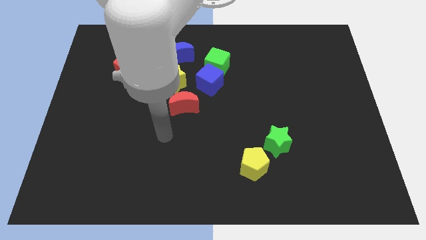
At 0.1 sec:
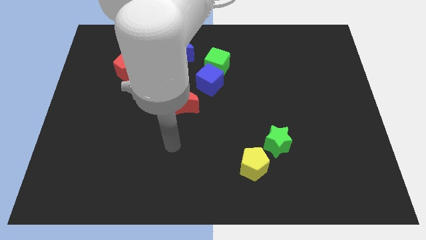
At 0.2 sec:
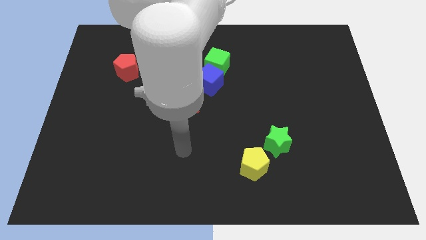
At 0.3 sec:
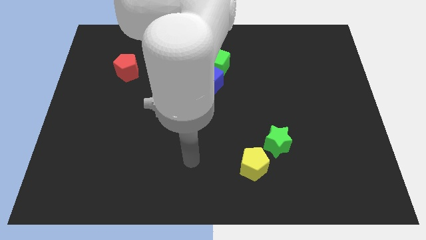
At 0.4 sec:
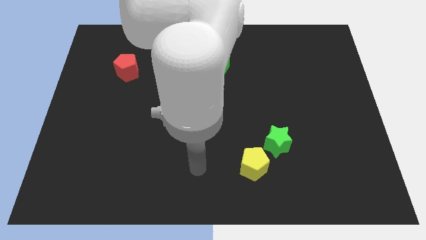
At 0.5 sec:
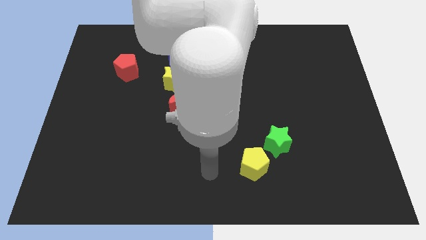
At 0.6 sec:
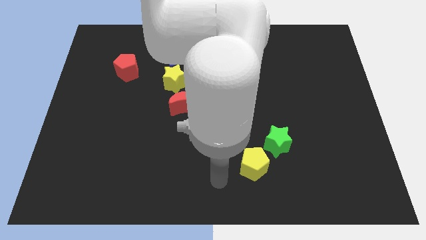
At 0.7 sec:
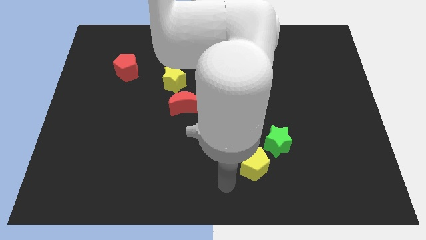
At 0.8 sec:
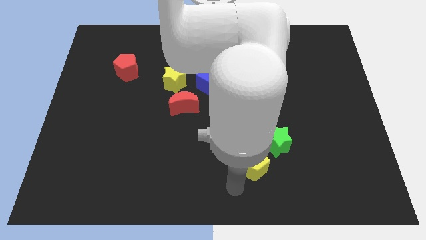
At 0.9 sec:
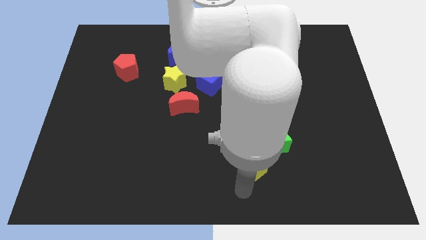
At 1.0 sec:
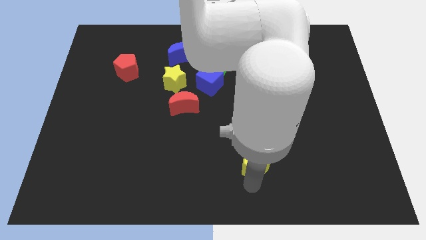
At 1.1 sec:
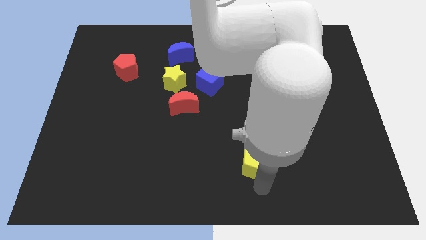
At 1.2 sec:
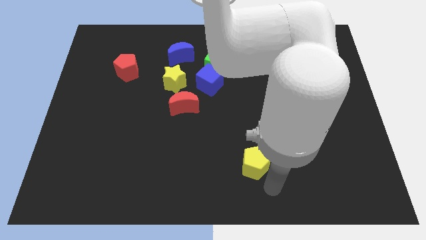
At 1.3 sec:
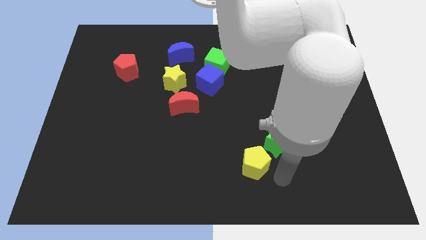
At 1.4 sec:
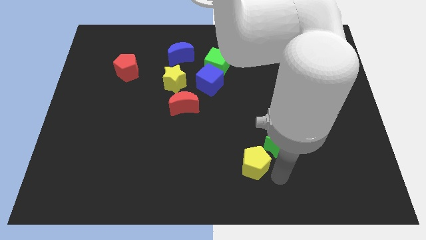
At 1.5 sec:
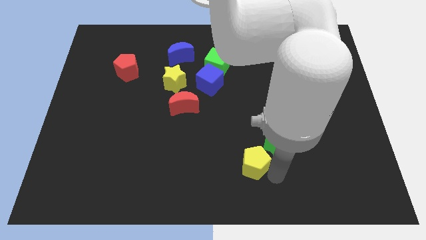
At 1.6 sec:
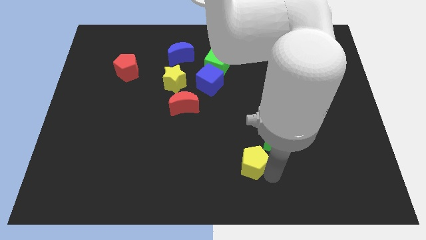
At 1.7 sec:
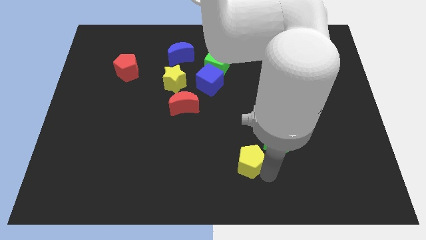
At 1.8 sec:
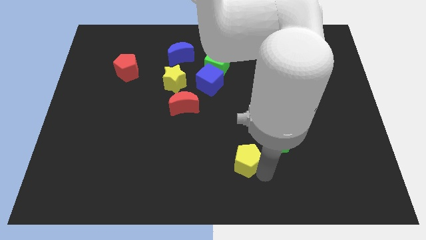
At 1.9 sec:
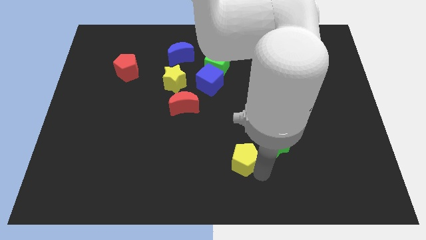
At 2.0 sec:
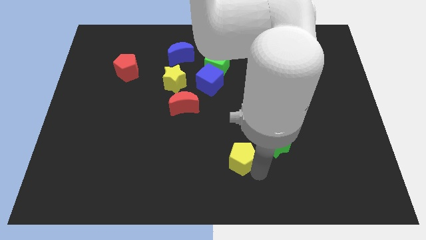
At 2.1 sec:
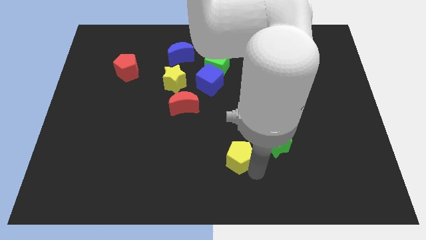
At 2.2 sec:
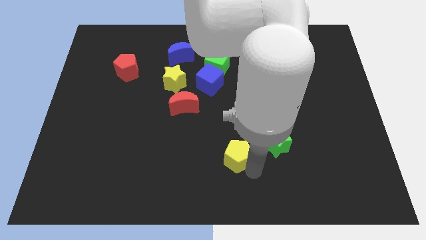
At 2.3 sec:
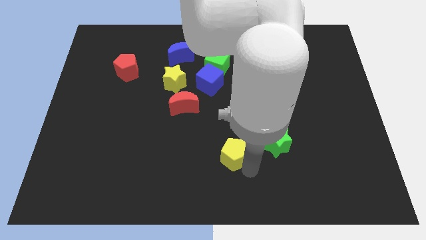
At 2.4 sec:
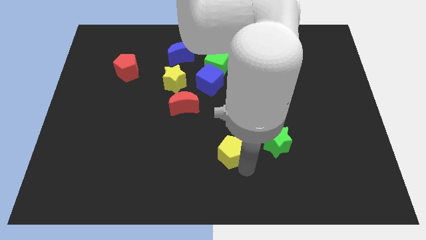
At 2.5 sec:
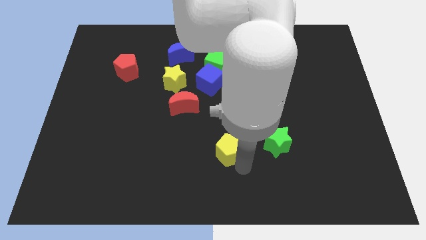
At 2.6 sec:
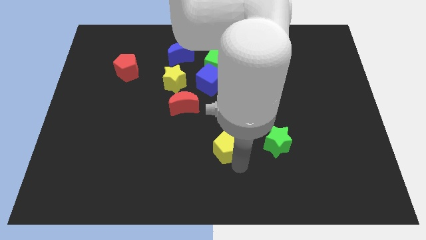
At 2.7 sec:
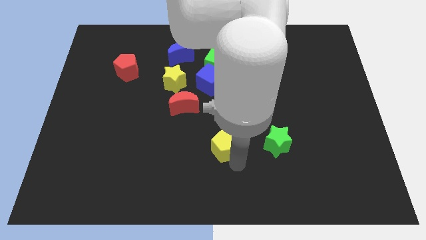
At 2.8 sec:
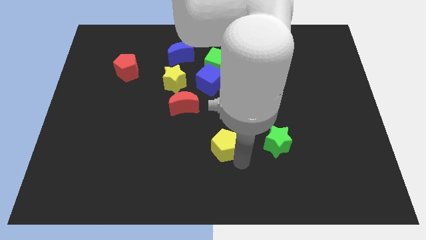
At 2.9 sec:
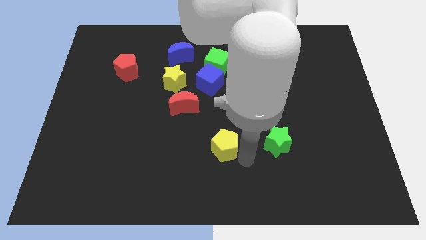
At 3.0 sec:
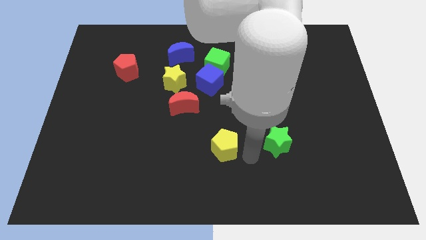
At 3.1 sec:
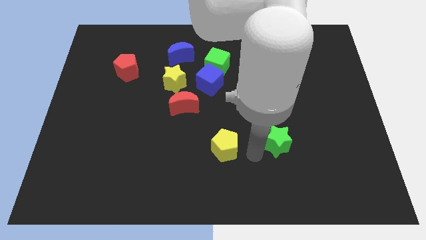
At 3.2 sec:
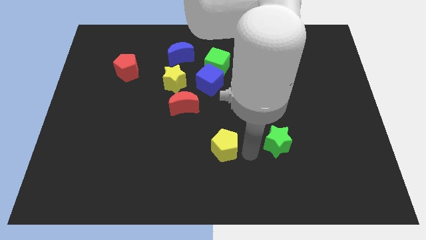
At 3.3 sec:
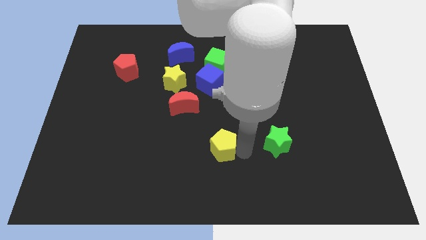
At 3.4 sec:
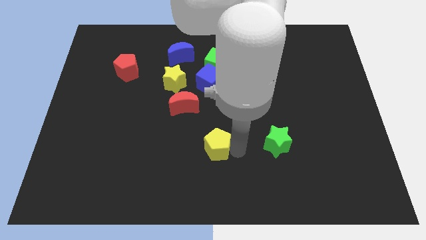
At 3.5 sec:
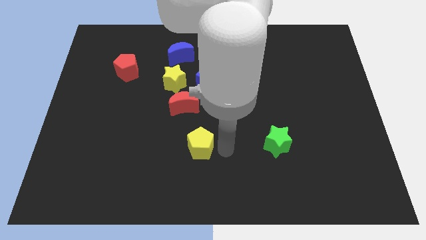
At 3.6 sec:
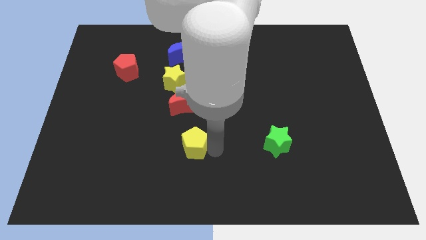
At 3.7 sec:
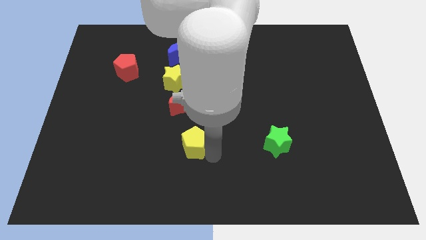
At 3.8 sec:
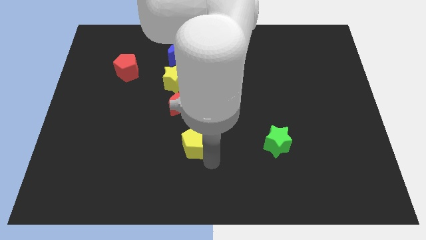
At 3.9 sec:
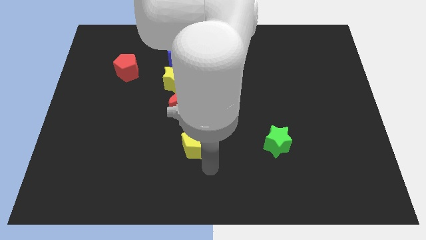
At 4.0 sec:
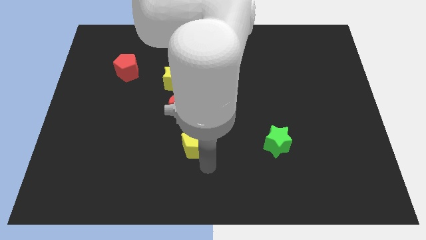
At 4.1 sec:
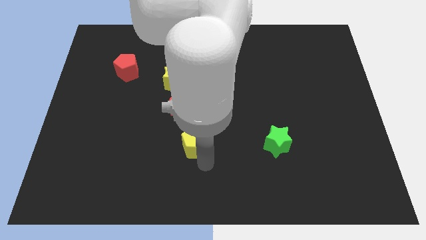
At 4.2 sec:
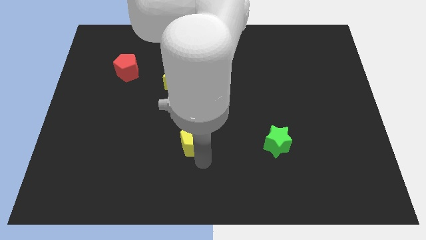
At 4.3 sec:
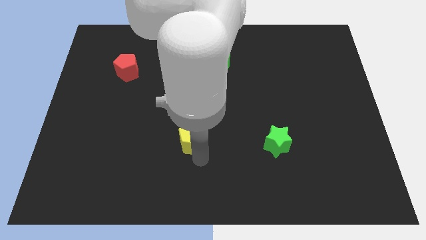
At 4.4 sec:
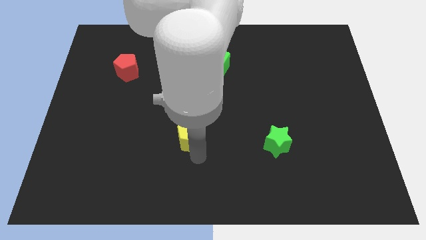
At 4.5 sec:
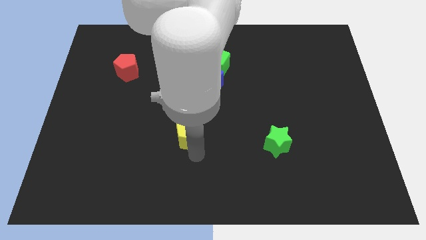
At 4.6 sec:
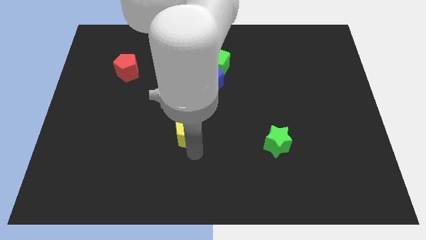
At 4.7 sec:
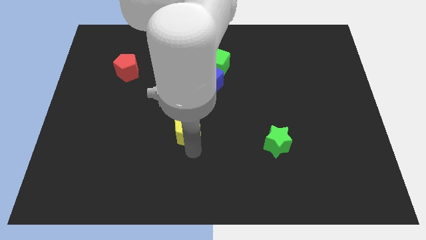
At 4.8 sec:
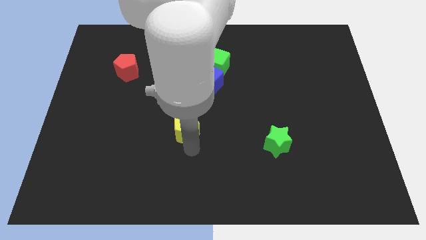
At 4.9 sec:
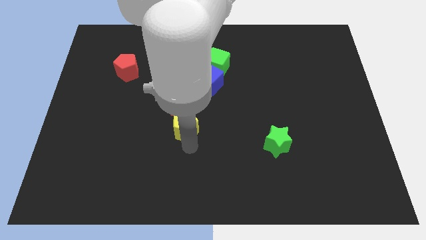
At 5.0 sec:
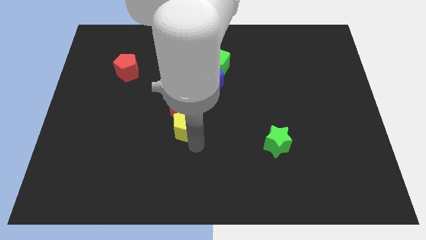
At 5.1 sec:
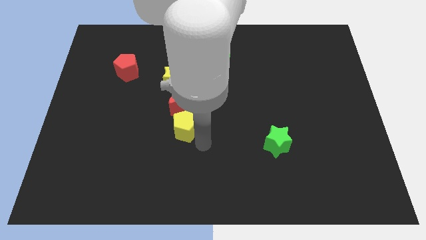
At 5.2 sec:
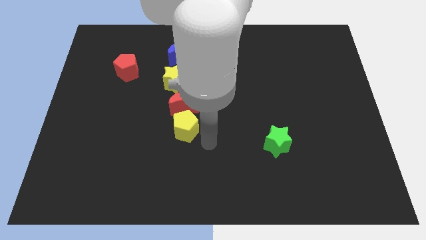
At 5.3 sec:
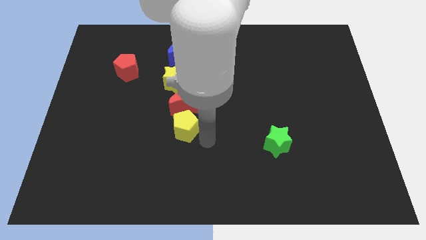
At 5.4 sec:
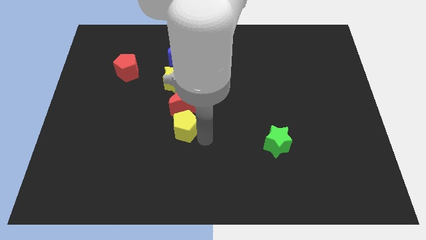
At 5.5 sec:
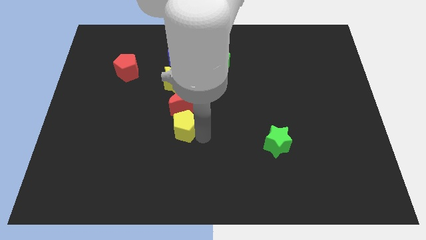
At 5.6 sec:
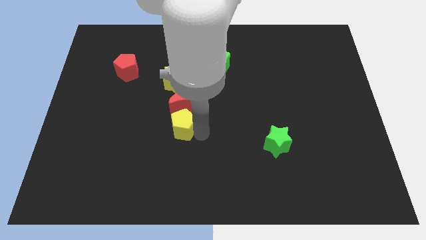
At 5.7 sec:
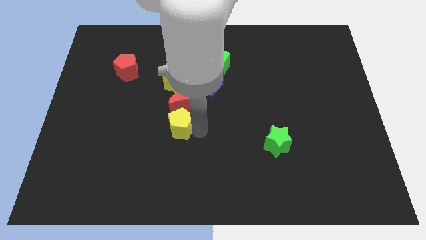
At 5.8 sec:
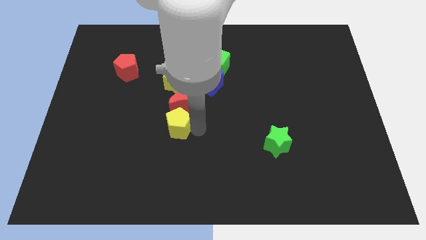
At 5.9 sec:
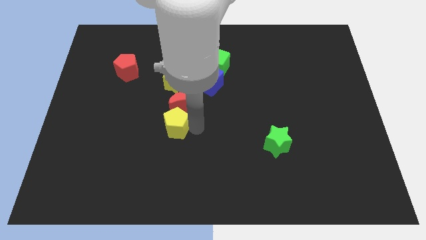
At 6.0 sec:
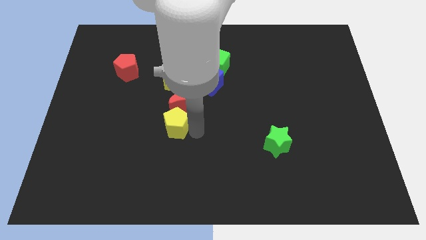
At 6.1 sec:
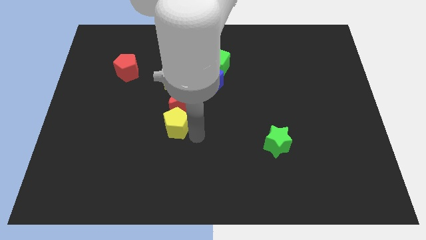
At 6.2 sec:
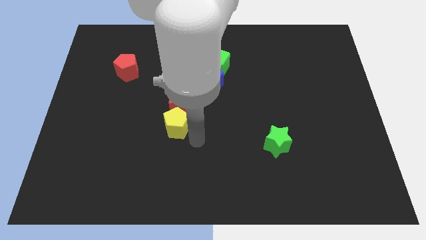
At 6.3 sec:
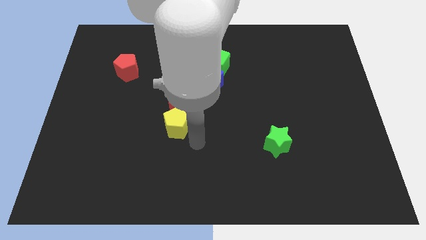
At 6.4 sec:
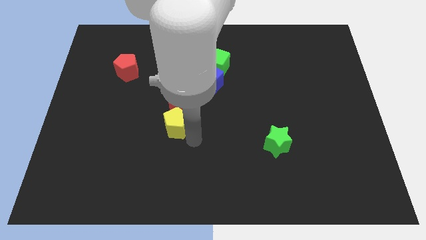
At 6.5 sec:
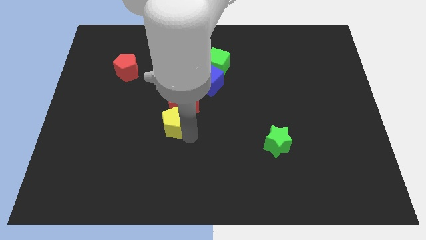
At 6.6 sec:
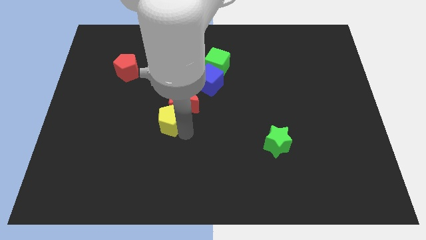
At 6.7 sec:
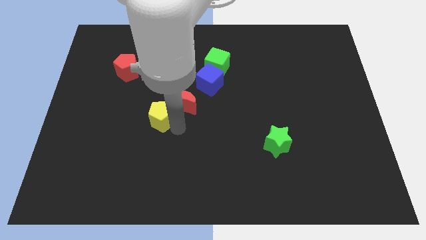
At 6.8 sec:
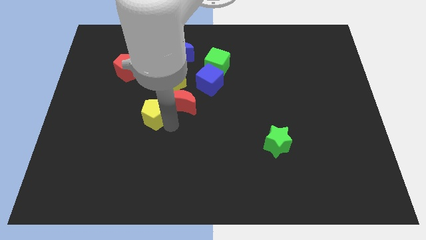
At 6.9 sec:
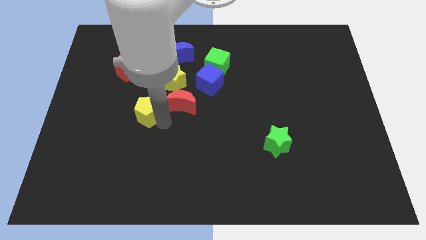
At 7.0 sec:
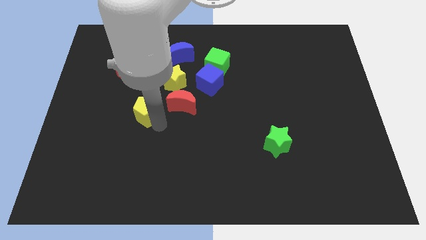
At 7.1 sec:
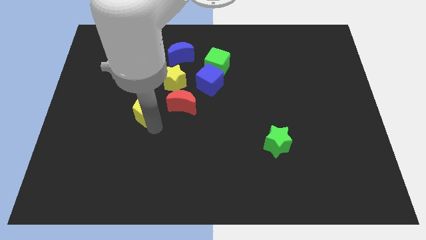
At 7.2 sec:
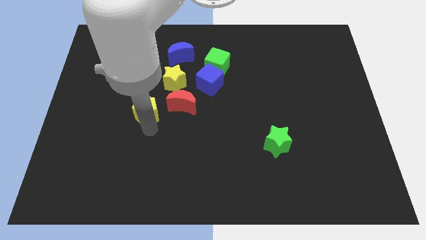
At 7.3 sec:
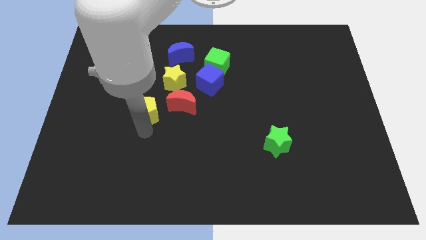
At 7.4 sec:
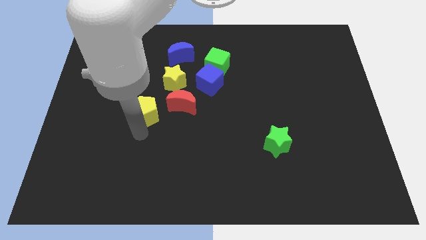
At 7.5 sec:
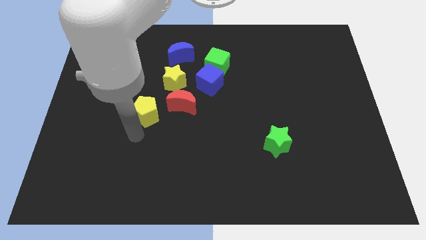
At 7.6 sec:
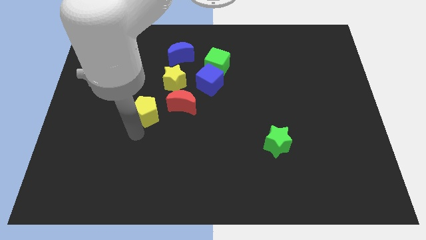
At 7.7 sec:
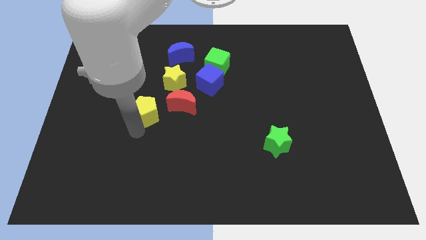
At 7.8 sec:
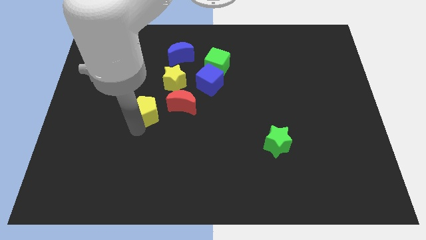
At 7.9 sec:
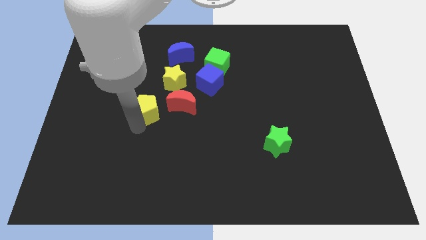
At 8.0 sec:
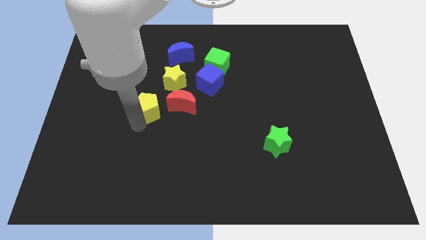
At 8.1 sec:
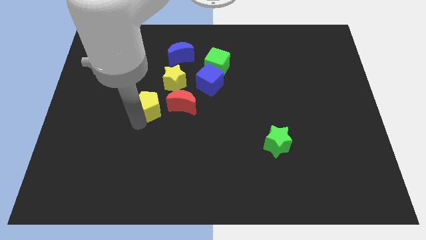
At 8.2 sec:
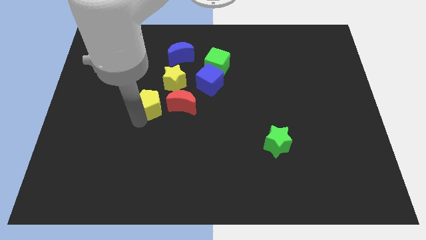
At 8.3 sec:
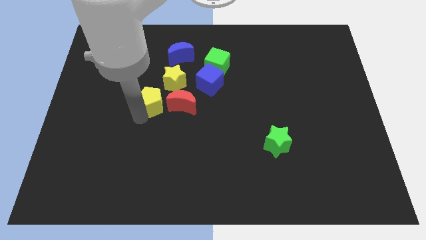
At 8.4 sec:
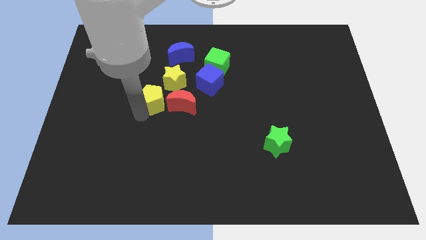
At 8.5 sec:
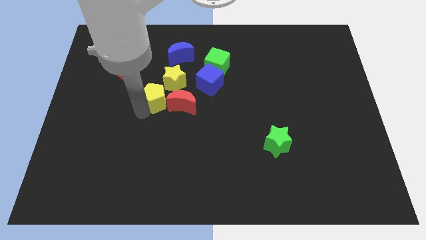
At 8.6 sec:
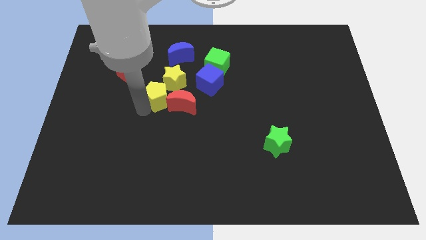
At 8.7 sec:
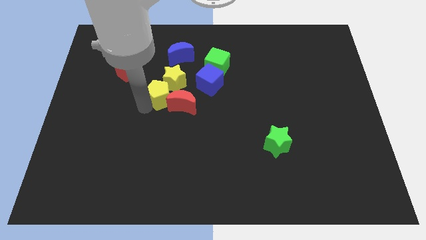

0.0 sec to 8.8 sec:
push the yellow pentagon left of the blue cube
